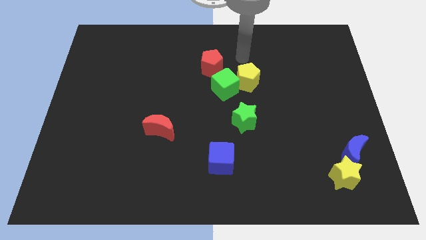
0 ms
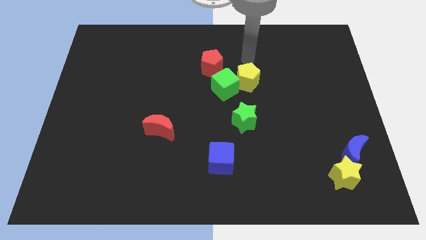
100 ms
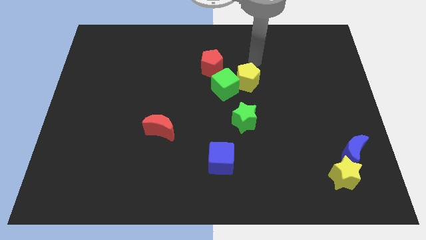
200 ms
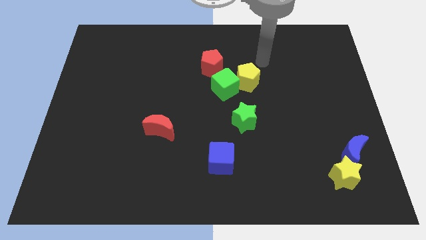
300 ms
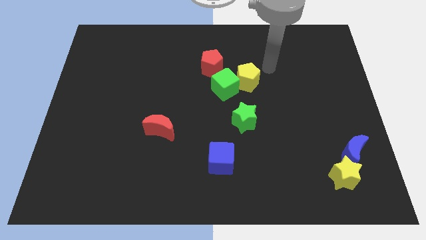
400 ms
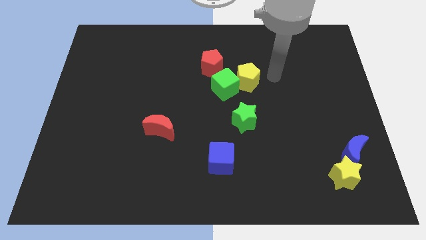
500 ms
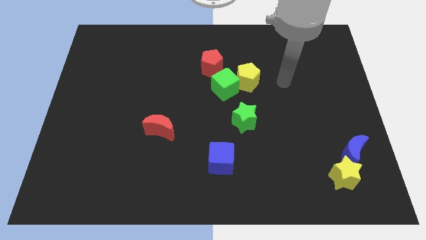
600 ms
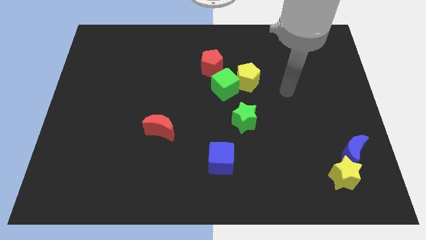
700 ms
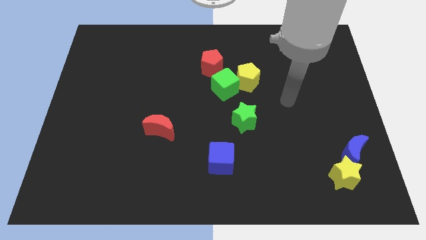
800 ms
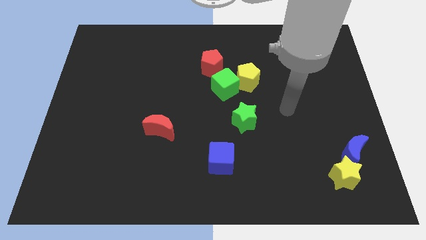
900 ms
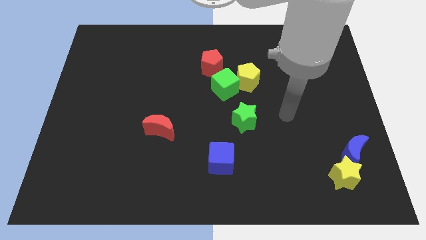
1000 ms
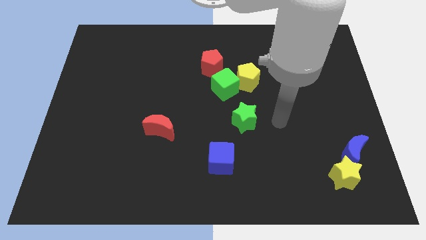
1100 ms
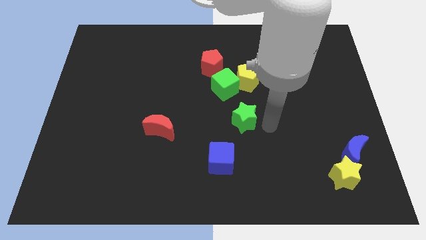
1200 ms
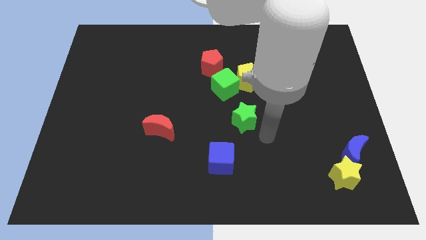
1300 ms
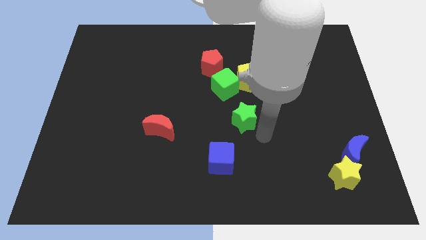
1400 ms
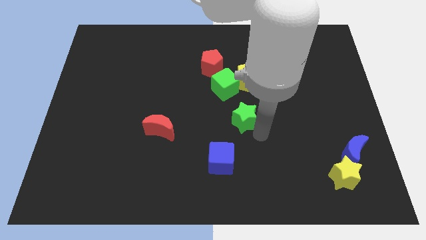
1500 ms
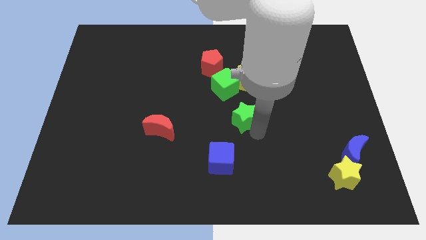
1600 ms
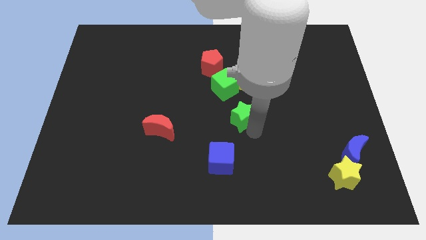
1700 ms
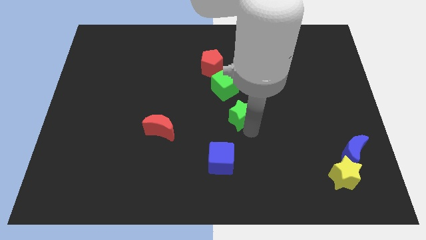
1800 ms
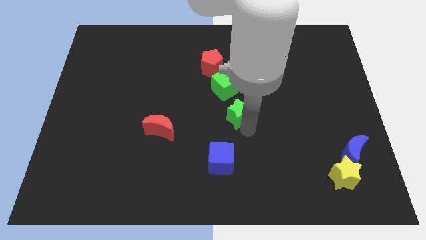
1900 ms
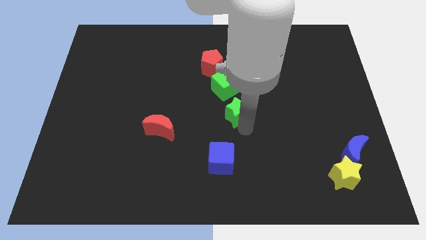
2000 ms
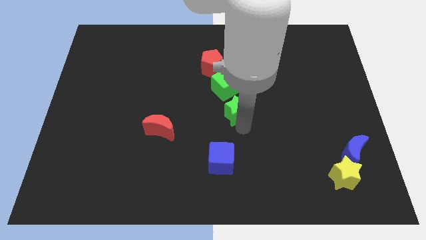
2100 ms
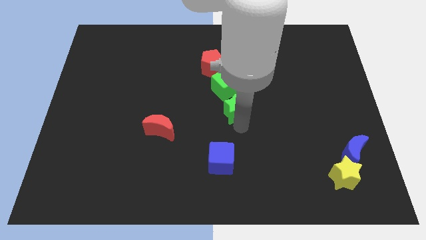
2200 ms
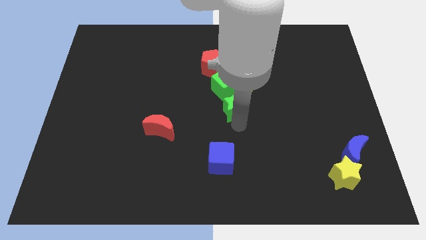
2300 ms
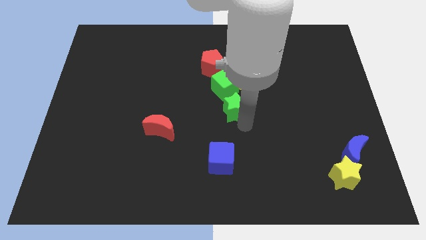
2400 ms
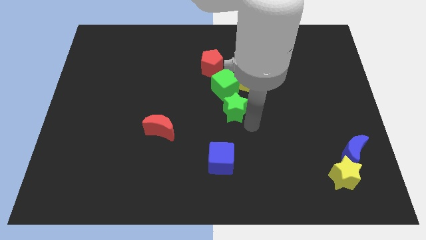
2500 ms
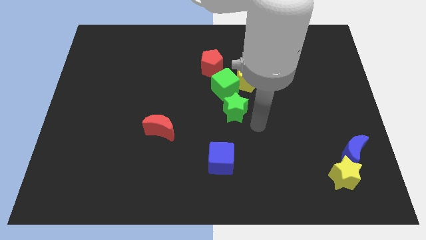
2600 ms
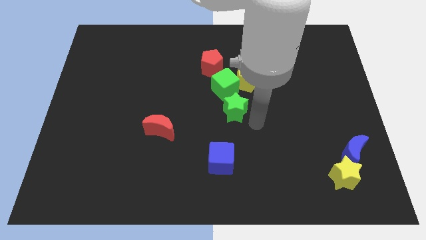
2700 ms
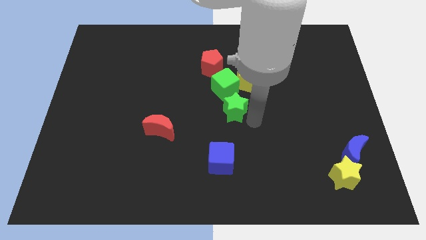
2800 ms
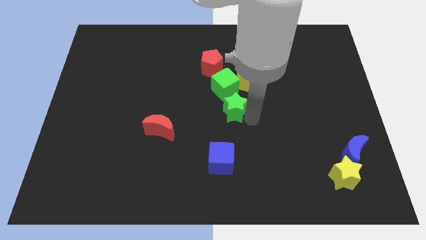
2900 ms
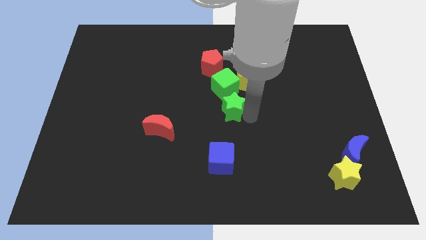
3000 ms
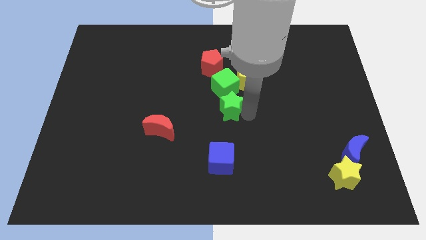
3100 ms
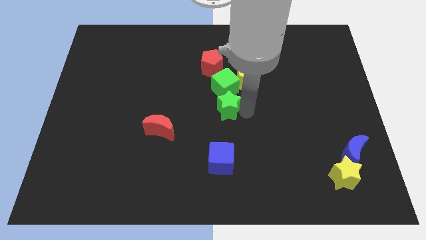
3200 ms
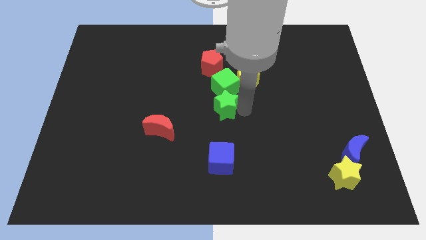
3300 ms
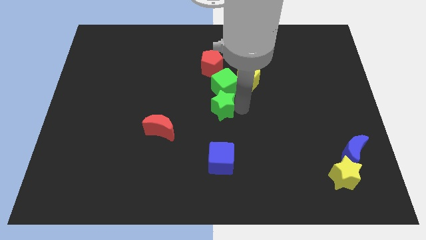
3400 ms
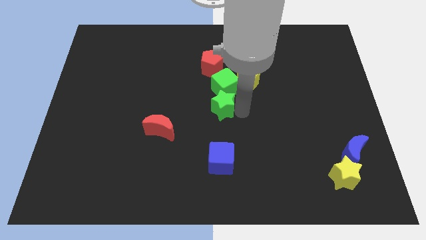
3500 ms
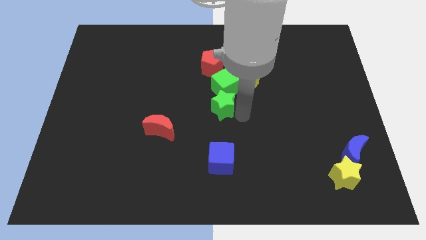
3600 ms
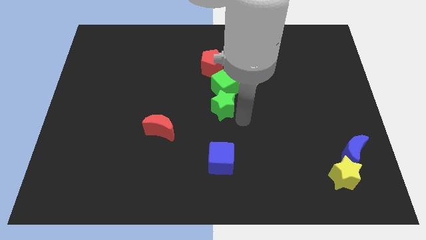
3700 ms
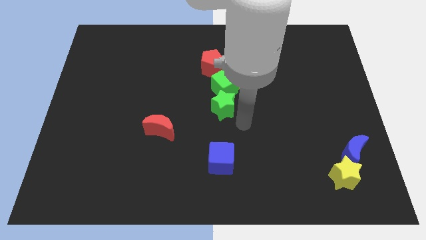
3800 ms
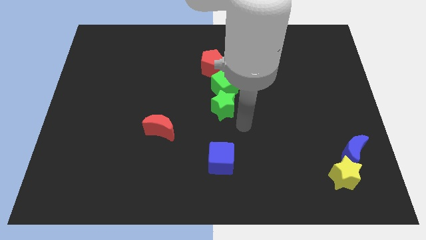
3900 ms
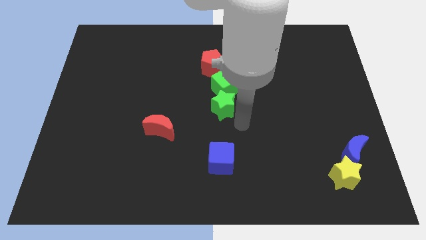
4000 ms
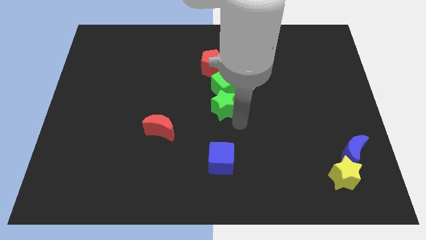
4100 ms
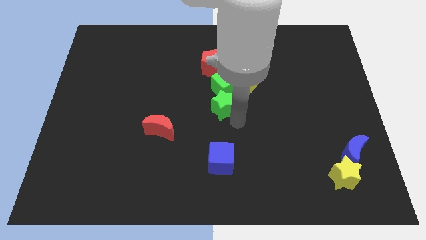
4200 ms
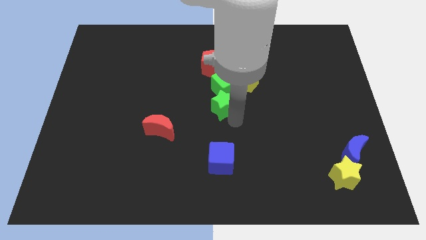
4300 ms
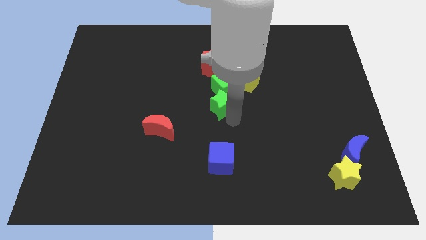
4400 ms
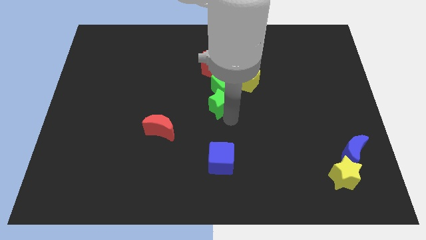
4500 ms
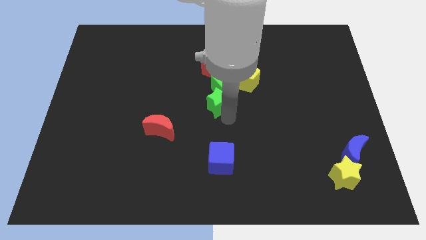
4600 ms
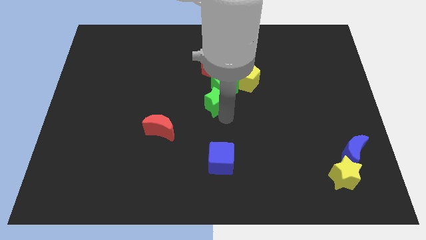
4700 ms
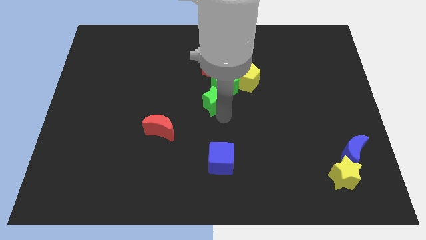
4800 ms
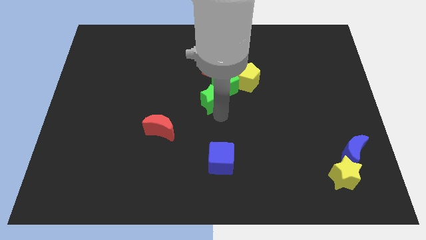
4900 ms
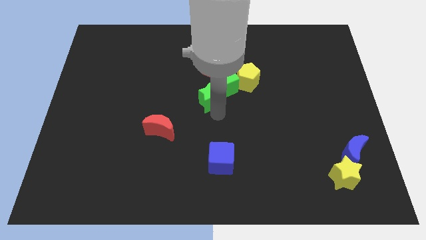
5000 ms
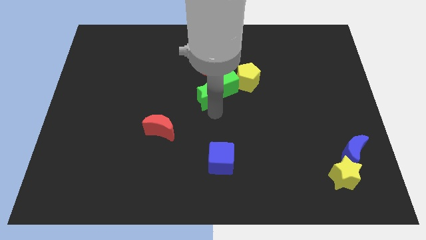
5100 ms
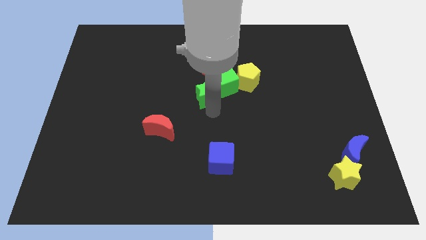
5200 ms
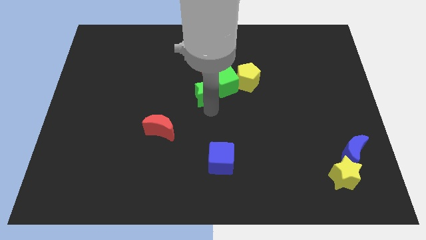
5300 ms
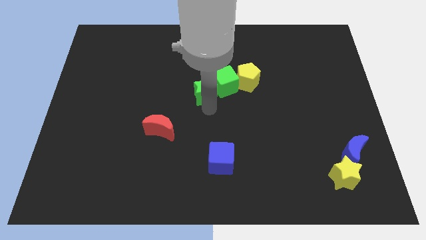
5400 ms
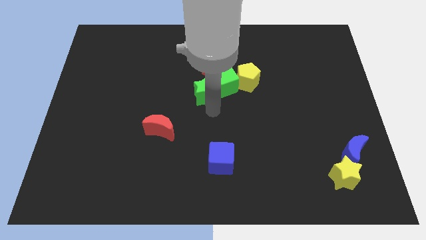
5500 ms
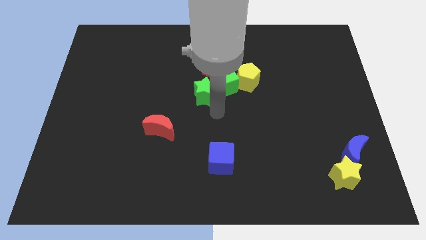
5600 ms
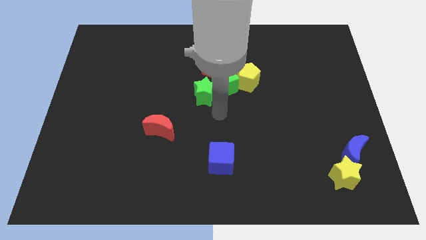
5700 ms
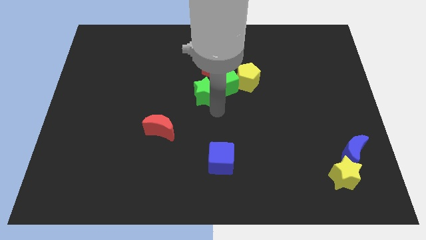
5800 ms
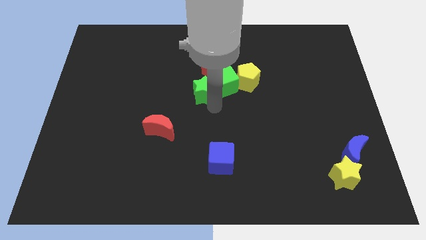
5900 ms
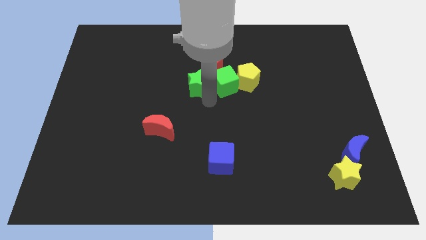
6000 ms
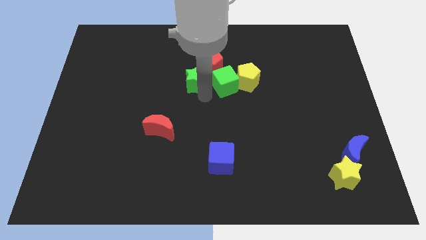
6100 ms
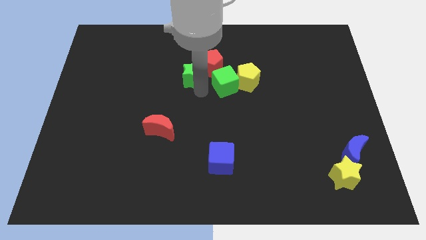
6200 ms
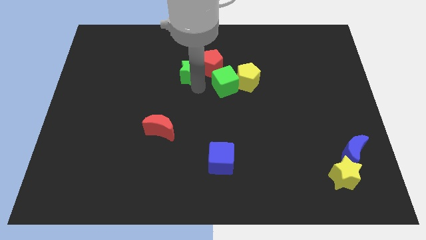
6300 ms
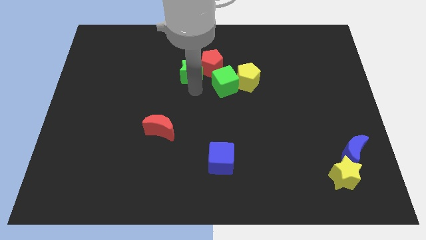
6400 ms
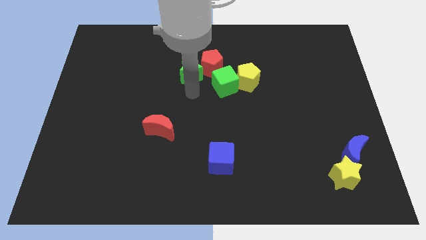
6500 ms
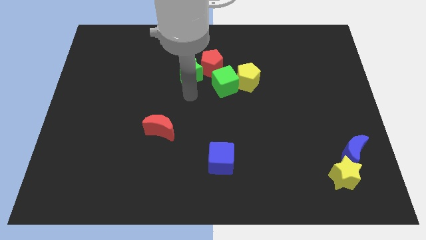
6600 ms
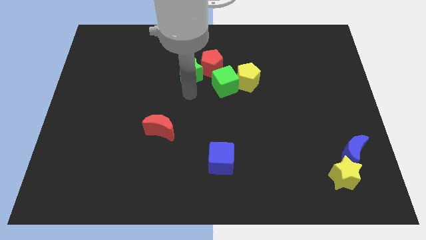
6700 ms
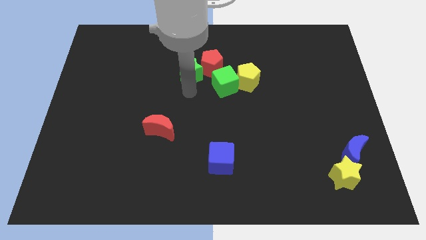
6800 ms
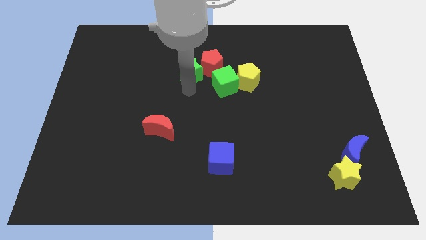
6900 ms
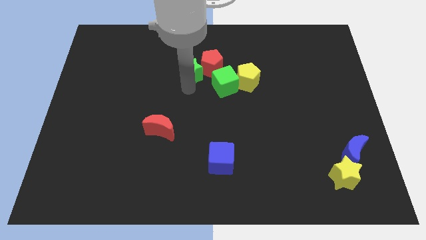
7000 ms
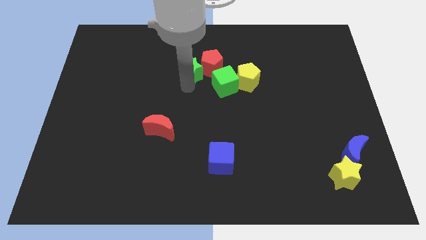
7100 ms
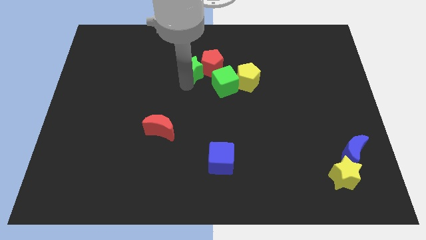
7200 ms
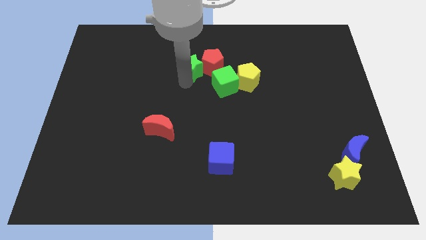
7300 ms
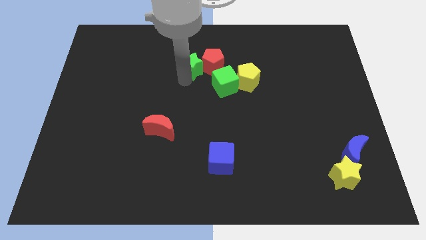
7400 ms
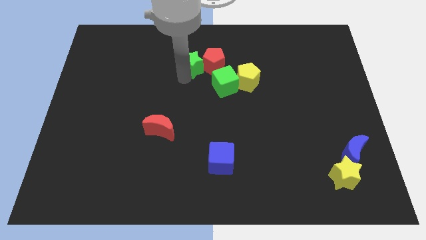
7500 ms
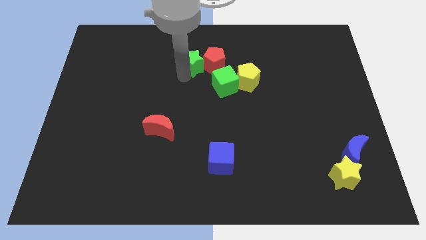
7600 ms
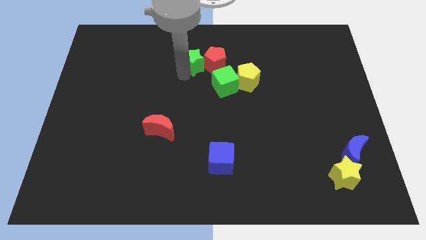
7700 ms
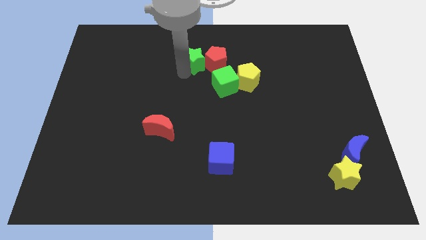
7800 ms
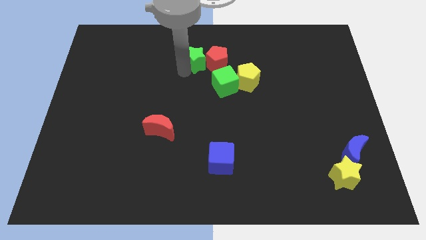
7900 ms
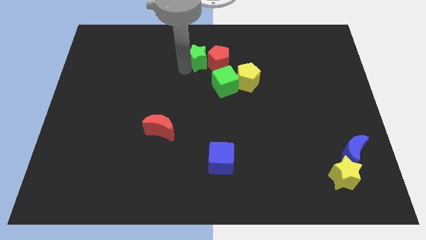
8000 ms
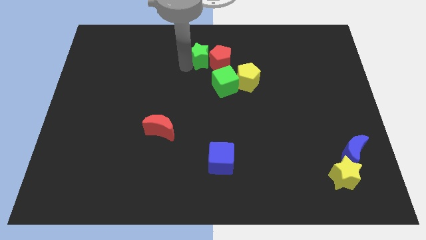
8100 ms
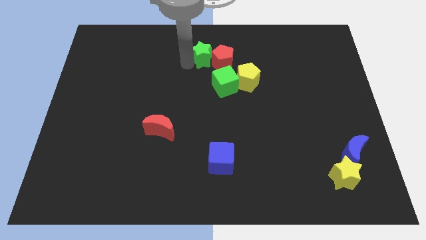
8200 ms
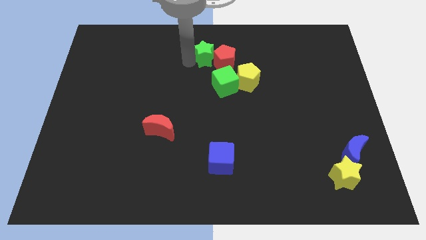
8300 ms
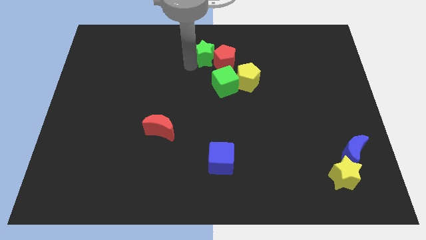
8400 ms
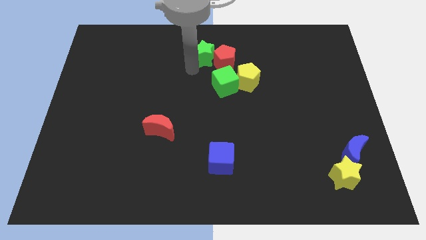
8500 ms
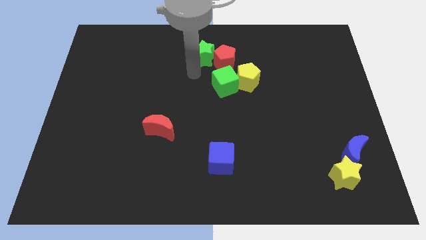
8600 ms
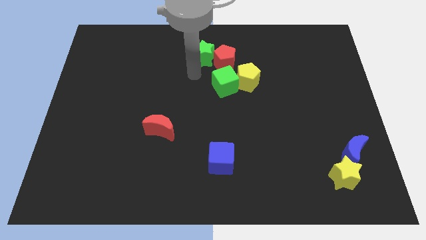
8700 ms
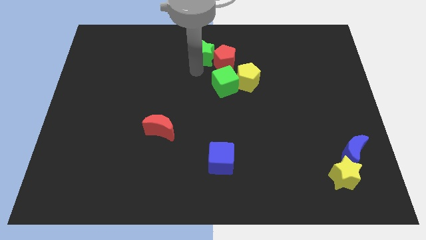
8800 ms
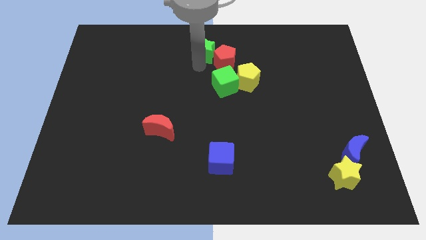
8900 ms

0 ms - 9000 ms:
move the green star to the top side
